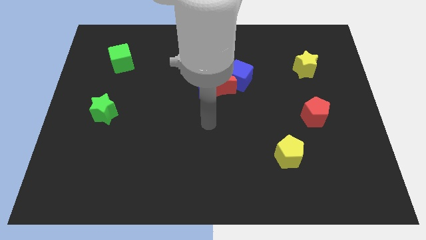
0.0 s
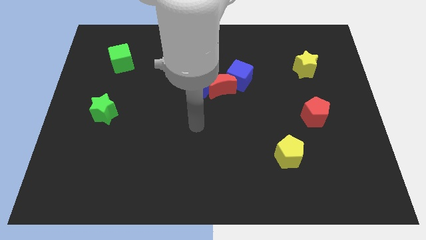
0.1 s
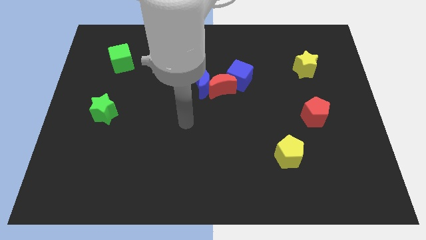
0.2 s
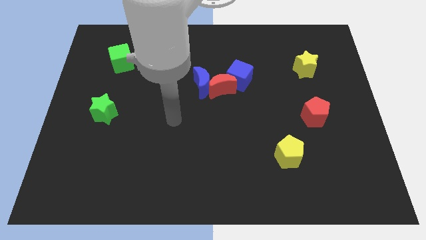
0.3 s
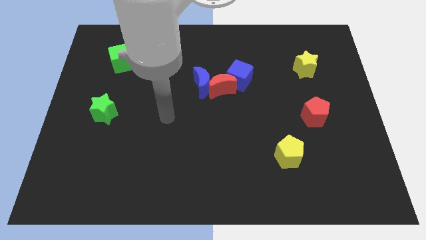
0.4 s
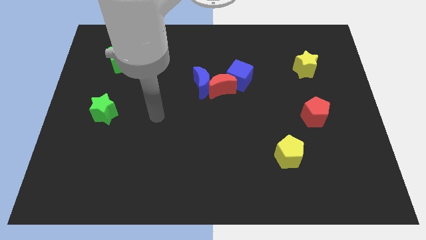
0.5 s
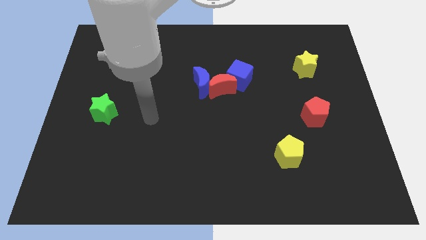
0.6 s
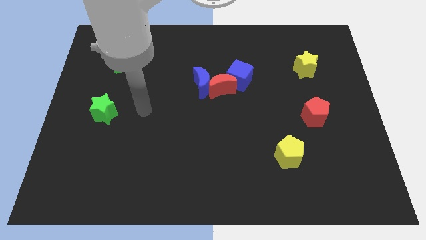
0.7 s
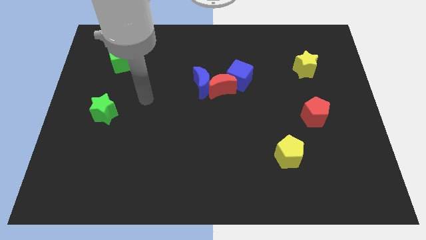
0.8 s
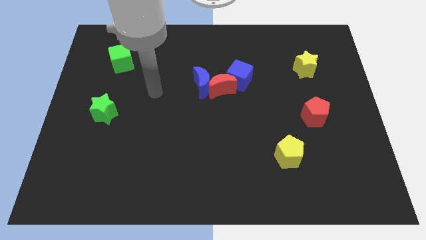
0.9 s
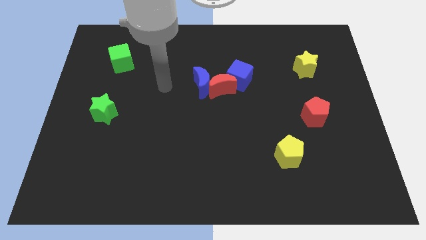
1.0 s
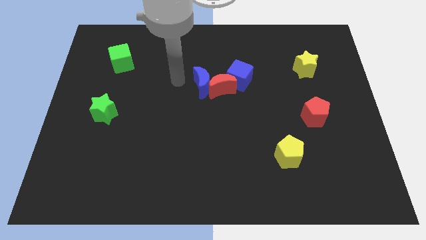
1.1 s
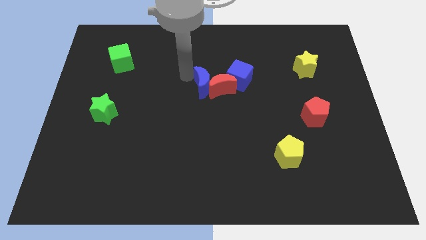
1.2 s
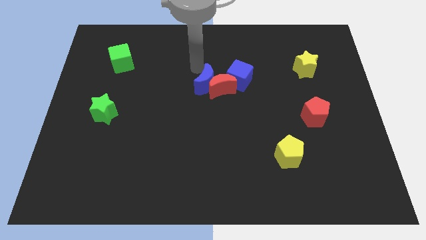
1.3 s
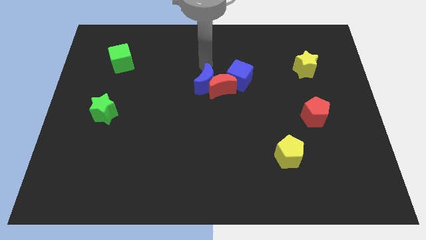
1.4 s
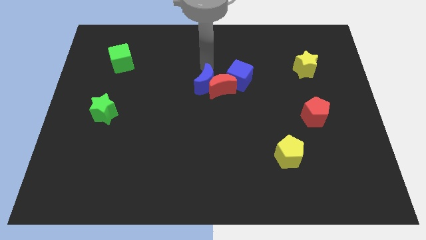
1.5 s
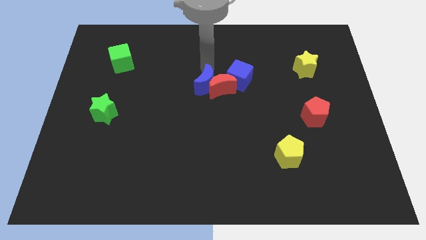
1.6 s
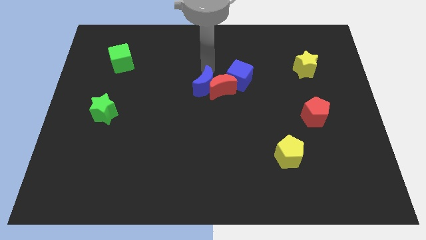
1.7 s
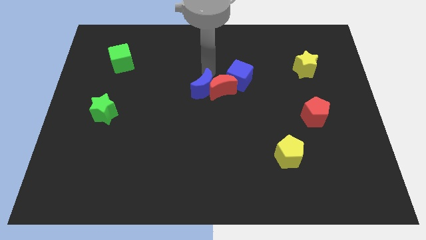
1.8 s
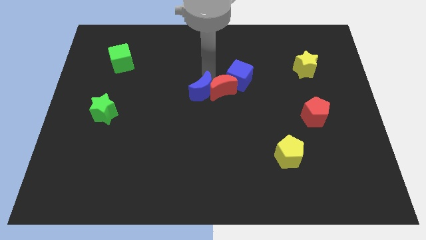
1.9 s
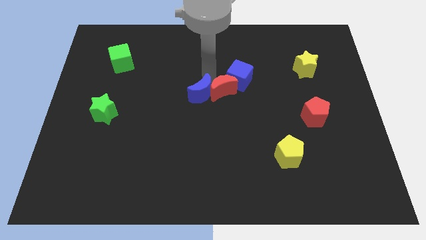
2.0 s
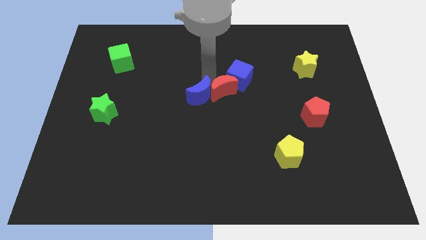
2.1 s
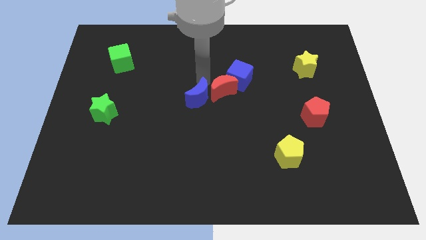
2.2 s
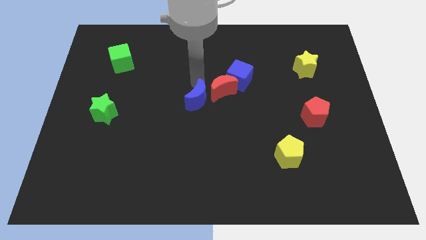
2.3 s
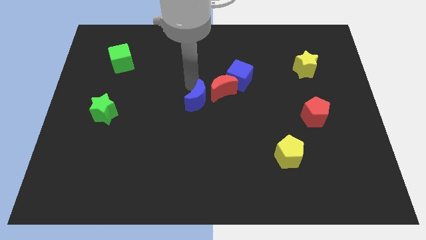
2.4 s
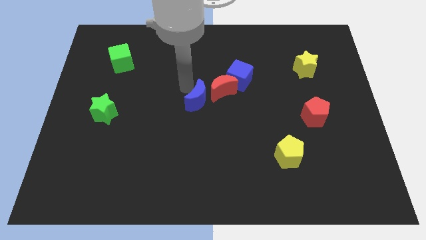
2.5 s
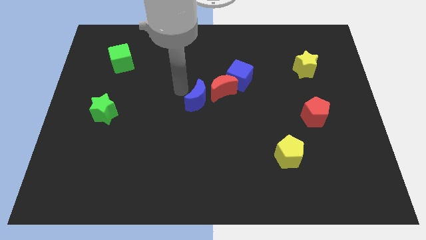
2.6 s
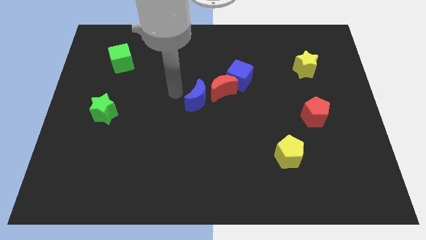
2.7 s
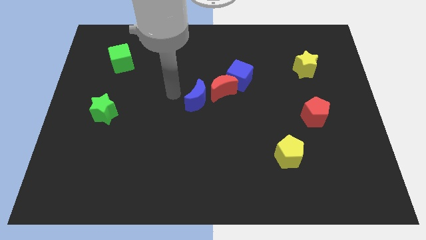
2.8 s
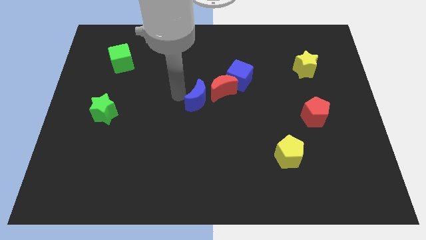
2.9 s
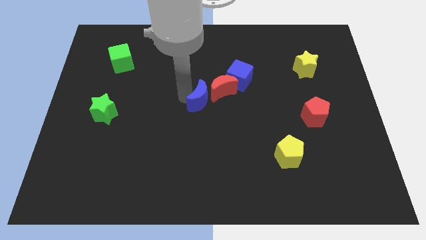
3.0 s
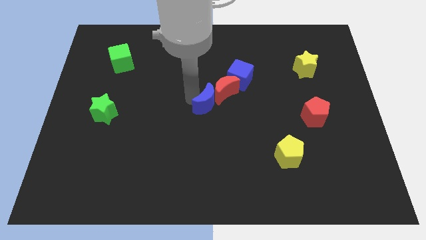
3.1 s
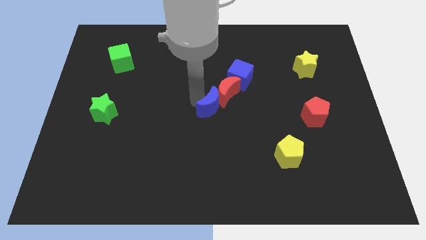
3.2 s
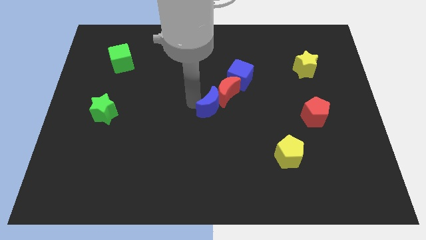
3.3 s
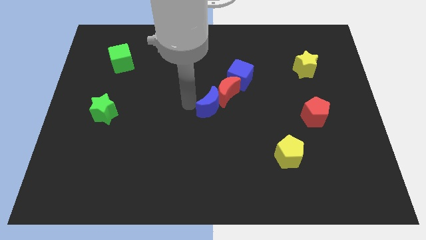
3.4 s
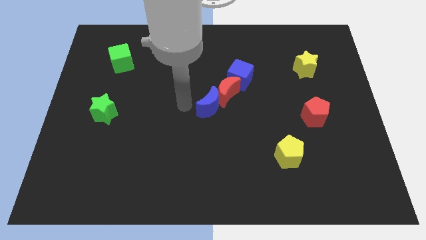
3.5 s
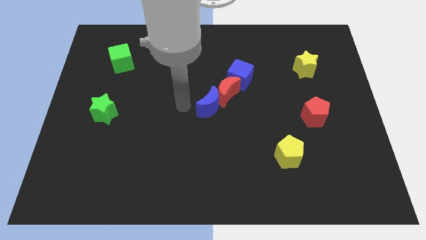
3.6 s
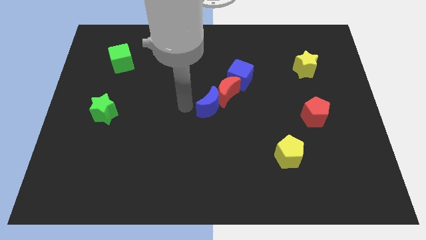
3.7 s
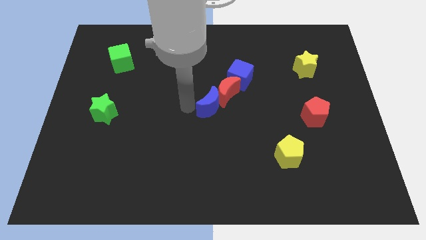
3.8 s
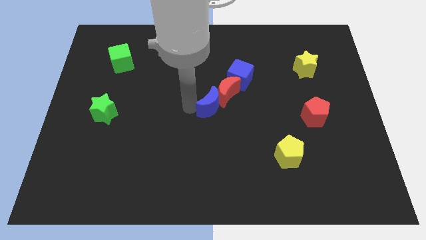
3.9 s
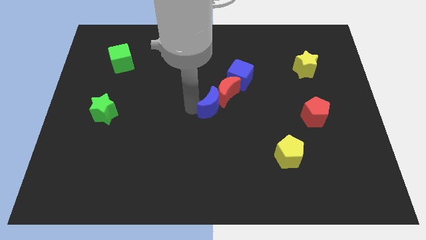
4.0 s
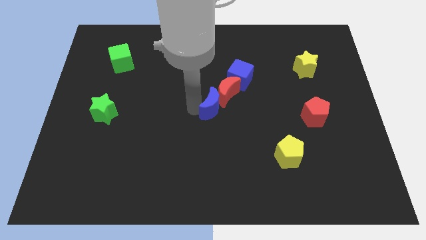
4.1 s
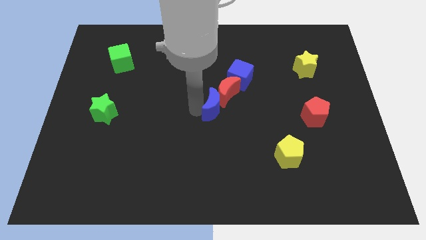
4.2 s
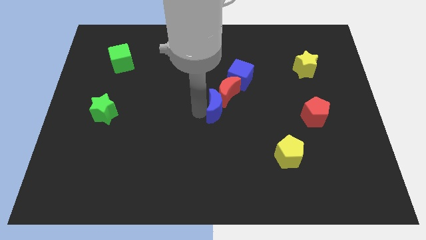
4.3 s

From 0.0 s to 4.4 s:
slide the blue moon a little down and right diagonally

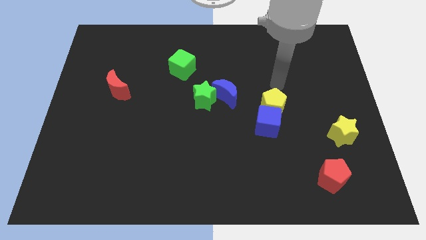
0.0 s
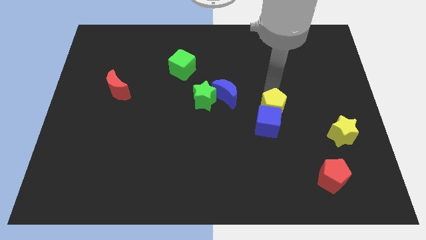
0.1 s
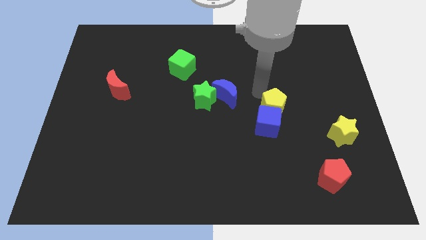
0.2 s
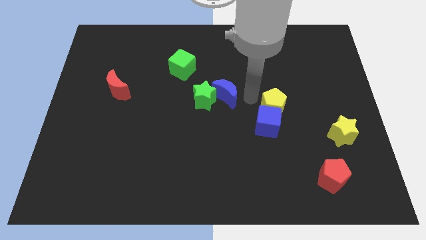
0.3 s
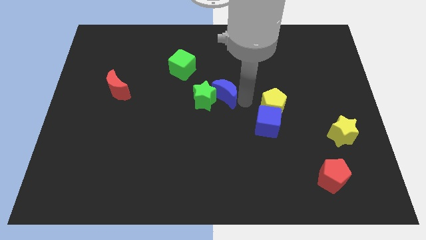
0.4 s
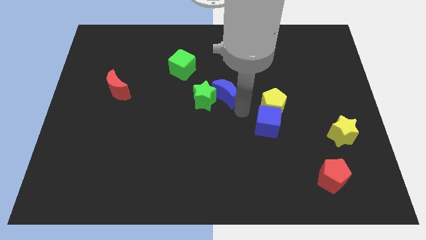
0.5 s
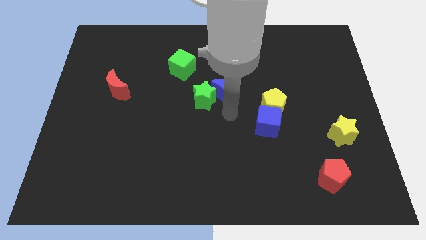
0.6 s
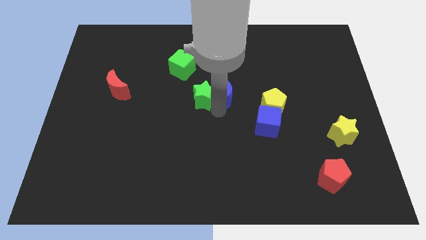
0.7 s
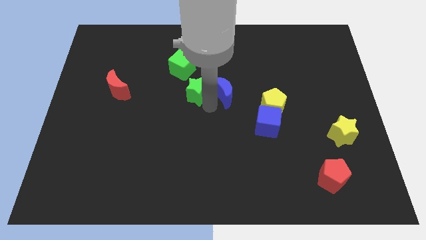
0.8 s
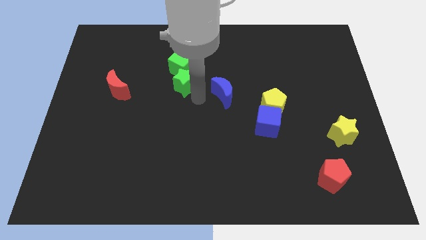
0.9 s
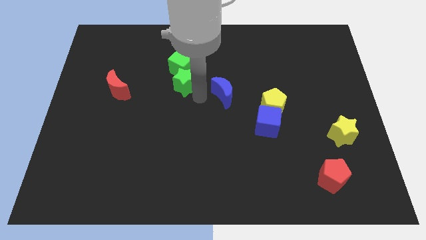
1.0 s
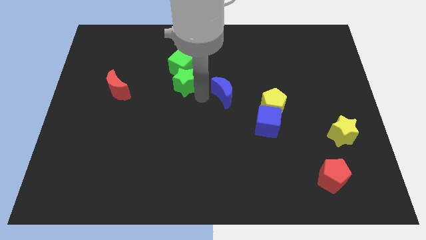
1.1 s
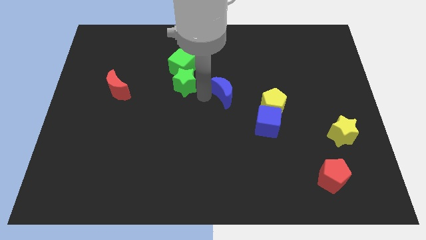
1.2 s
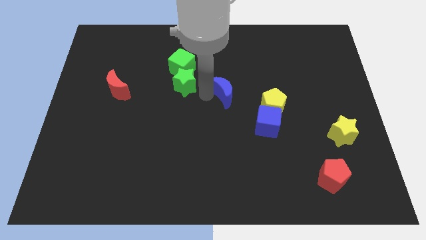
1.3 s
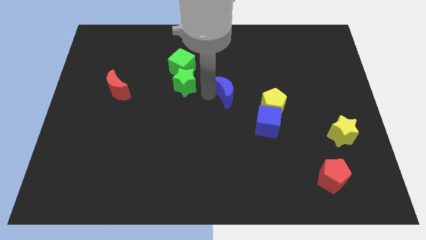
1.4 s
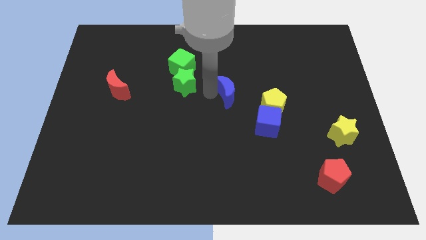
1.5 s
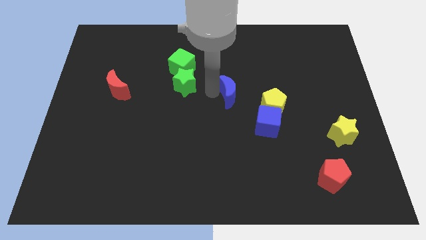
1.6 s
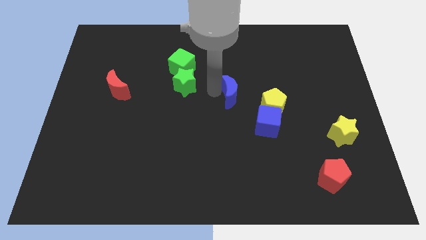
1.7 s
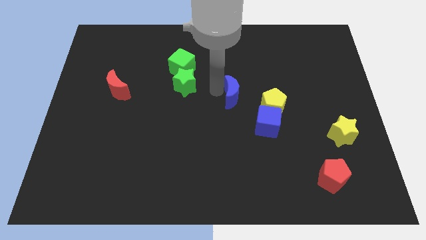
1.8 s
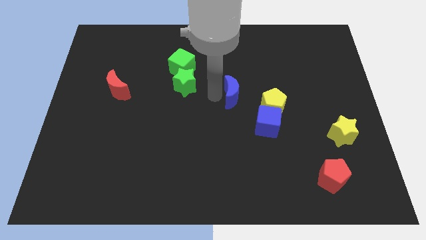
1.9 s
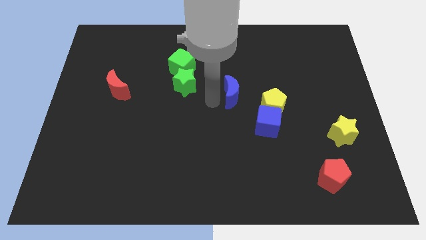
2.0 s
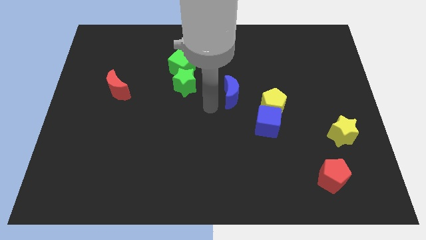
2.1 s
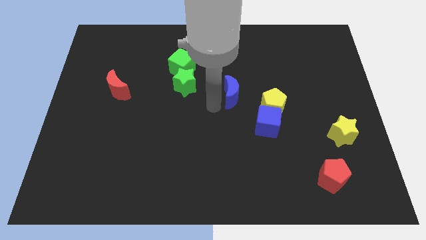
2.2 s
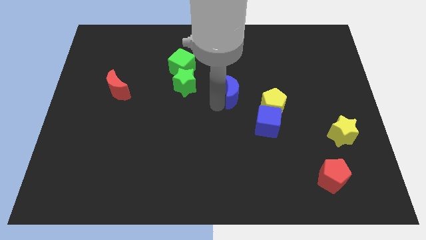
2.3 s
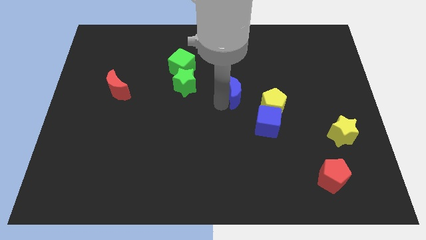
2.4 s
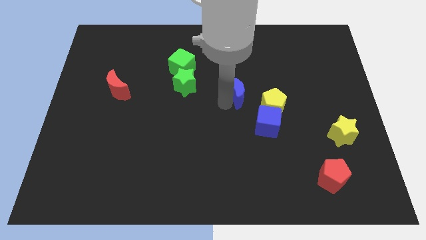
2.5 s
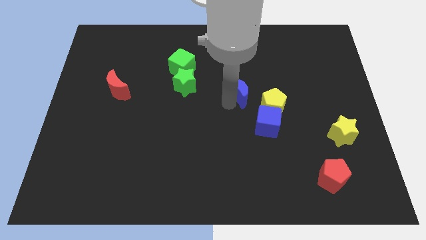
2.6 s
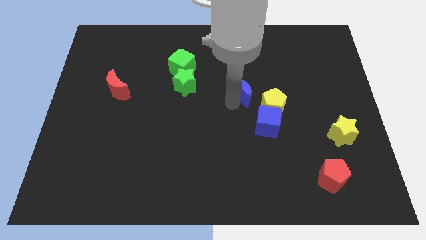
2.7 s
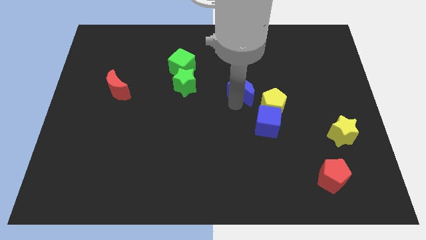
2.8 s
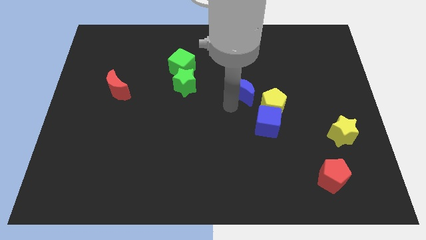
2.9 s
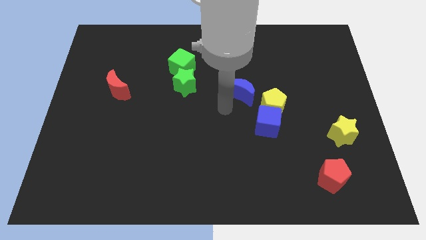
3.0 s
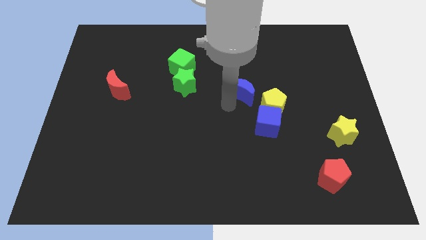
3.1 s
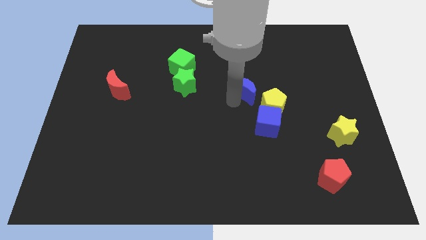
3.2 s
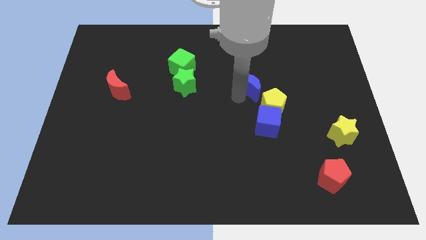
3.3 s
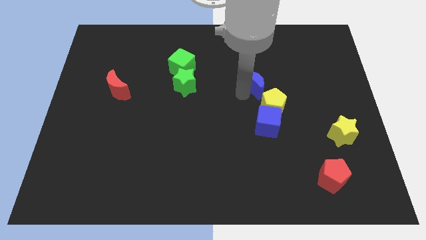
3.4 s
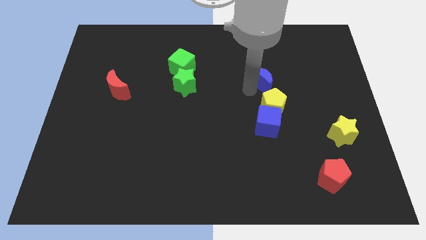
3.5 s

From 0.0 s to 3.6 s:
move the blue moon upwards and right a little bit
